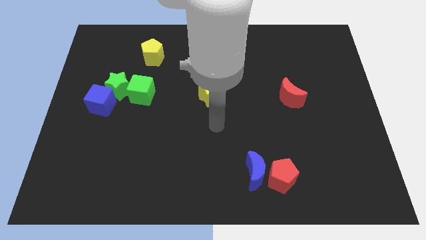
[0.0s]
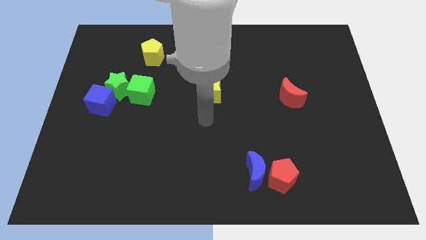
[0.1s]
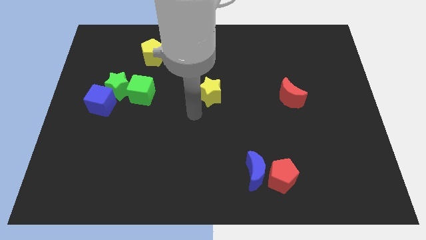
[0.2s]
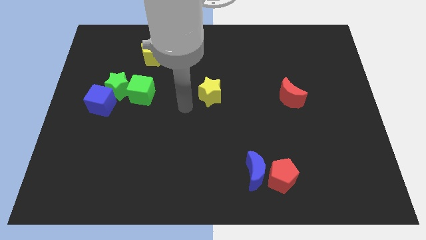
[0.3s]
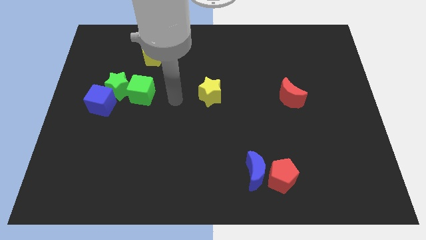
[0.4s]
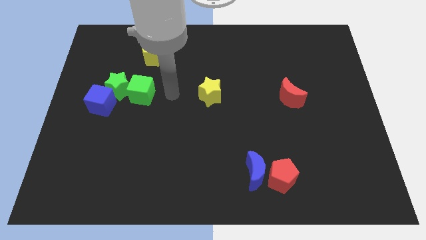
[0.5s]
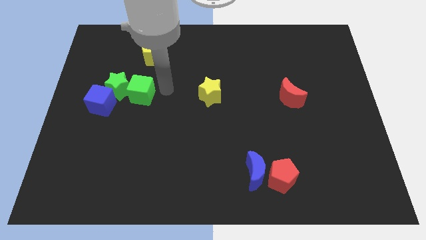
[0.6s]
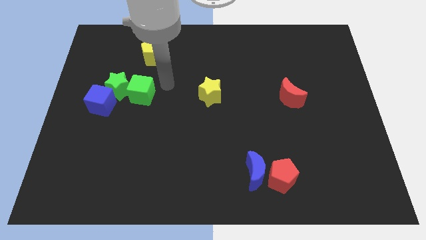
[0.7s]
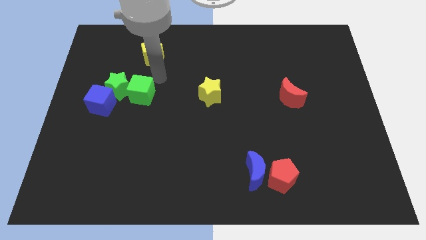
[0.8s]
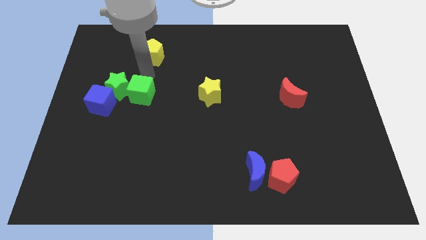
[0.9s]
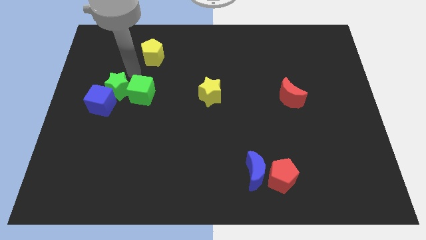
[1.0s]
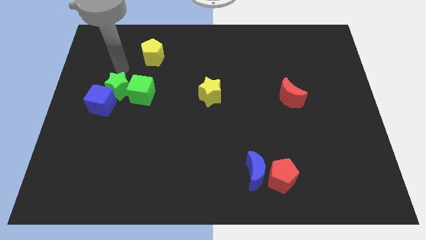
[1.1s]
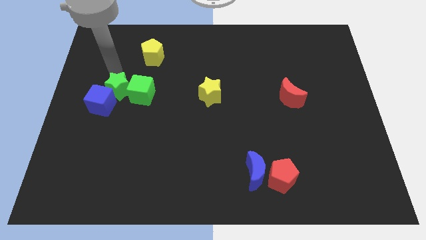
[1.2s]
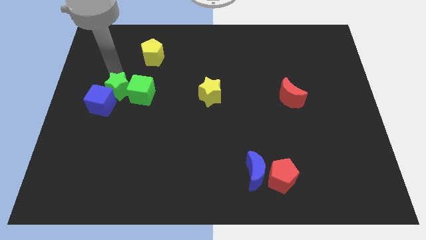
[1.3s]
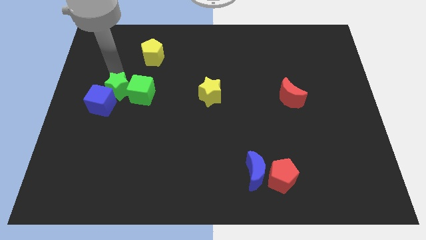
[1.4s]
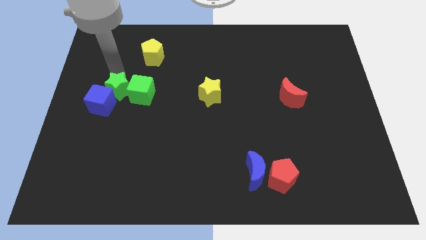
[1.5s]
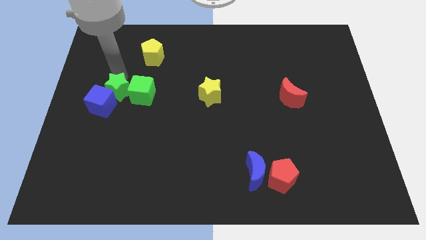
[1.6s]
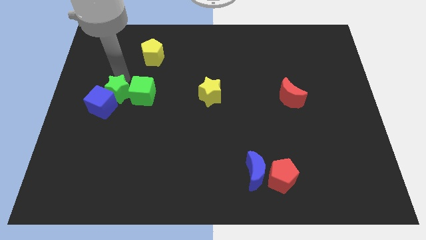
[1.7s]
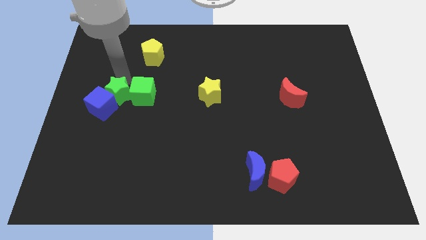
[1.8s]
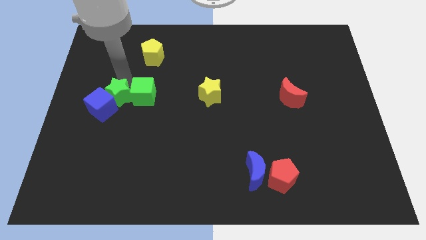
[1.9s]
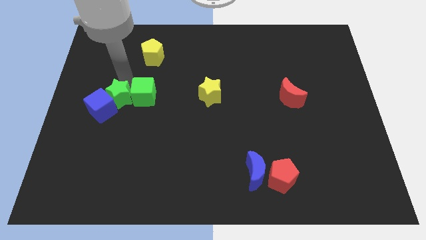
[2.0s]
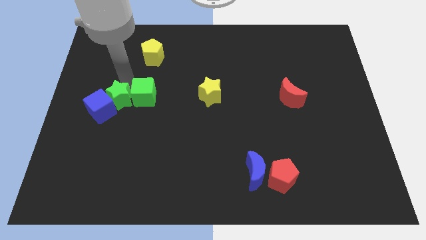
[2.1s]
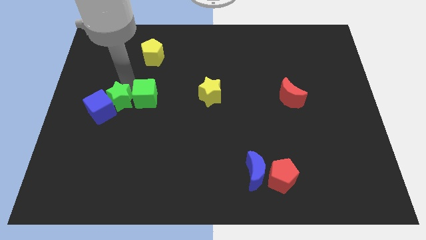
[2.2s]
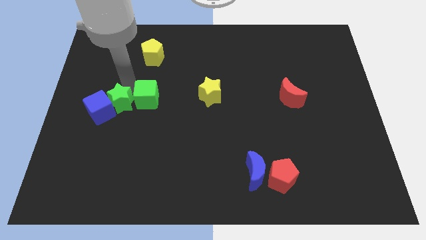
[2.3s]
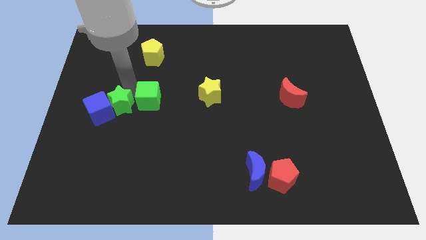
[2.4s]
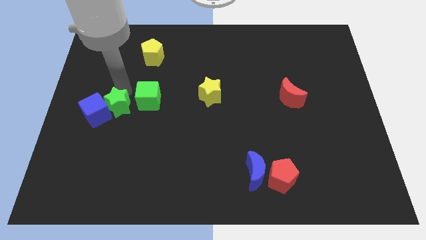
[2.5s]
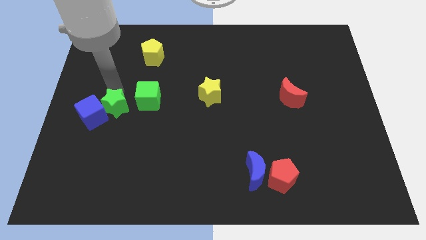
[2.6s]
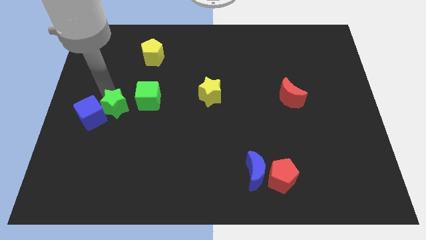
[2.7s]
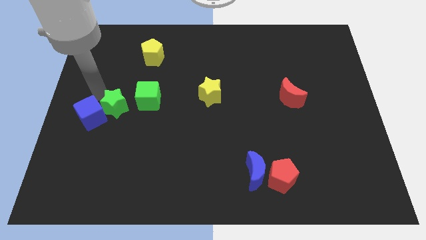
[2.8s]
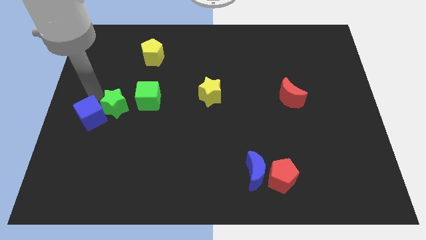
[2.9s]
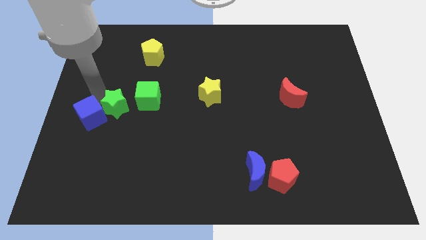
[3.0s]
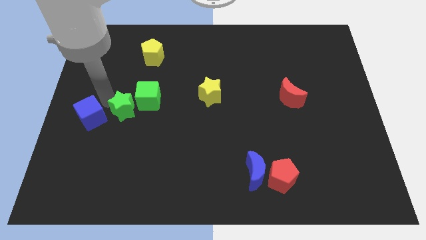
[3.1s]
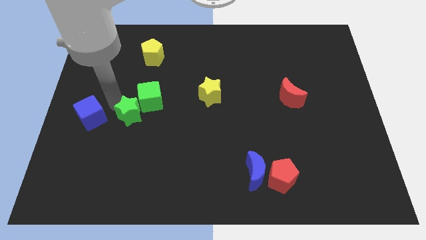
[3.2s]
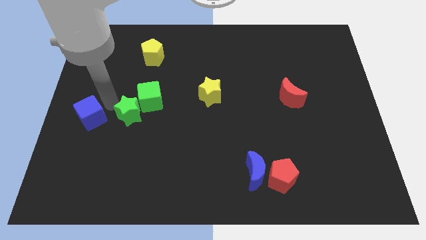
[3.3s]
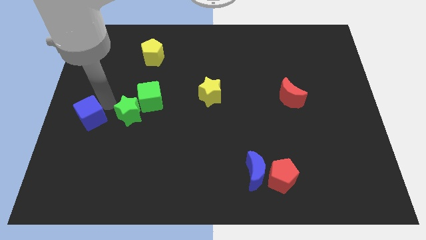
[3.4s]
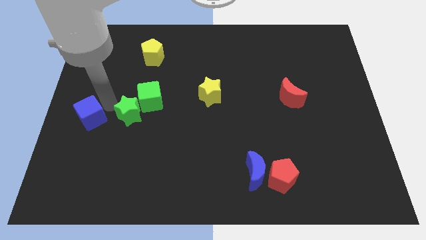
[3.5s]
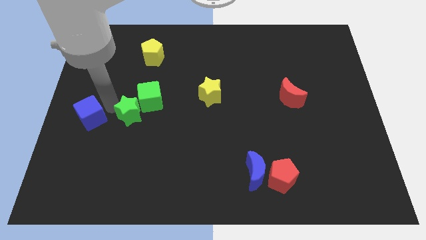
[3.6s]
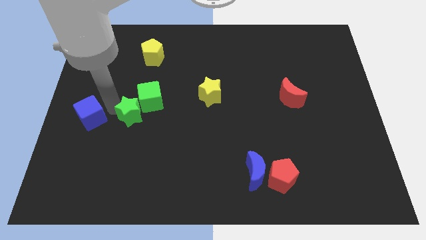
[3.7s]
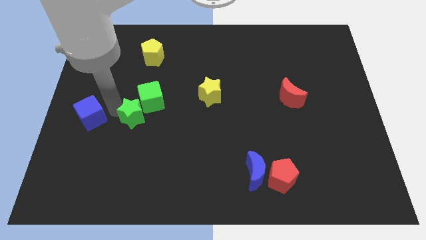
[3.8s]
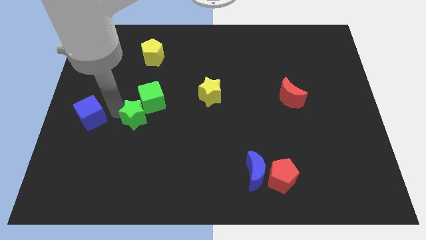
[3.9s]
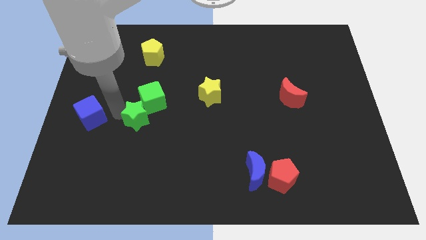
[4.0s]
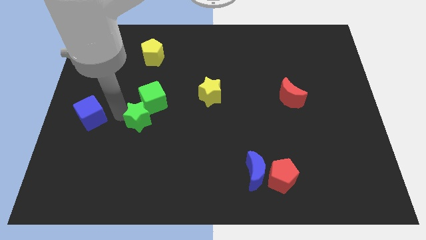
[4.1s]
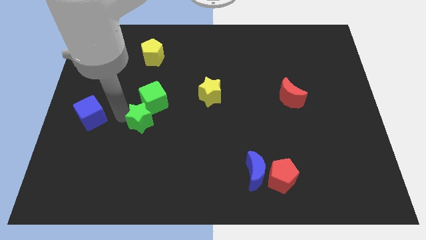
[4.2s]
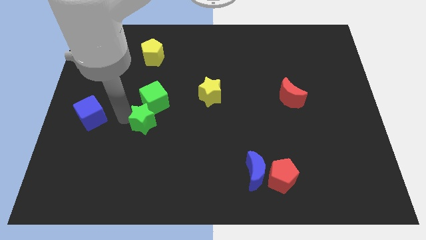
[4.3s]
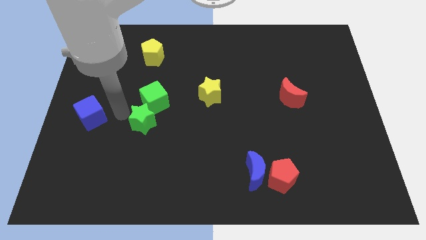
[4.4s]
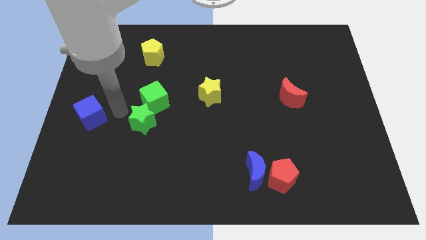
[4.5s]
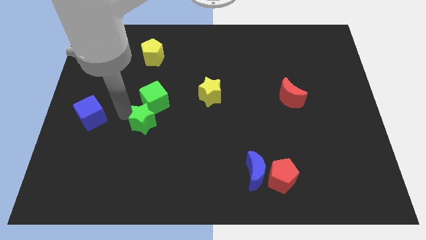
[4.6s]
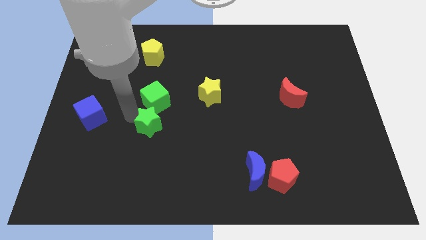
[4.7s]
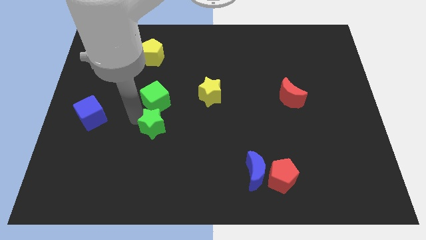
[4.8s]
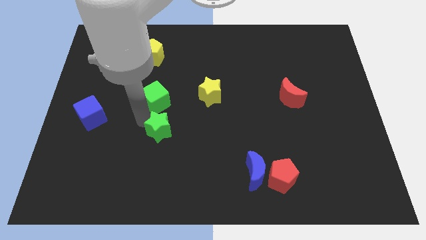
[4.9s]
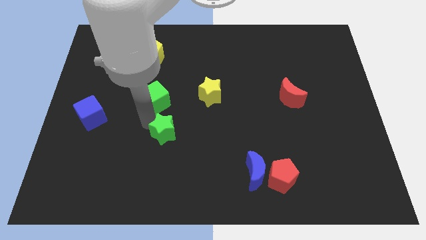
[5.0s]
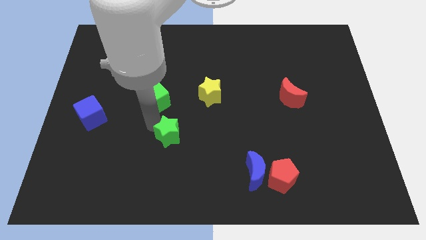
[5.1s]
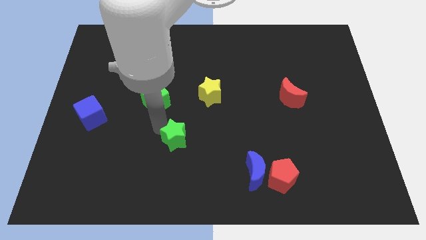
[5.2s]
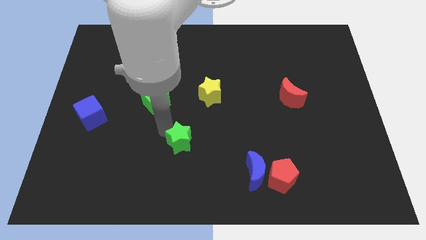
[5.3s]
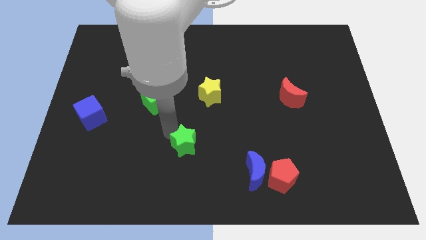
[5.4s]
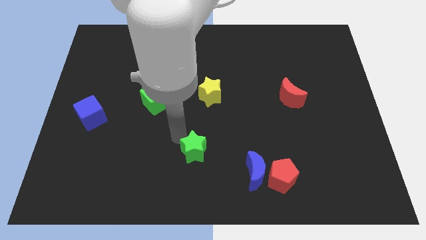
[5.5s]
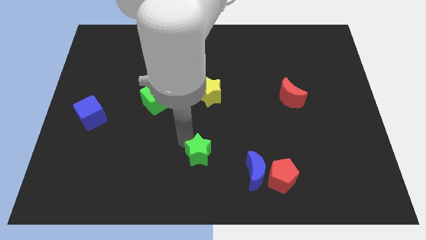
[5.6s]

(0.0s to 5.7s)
put the green star to the left side of the blue moon
